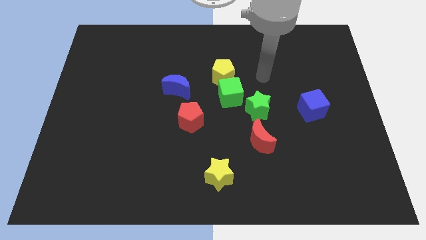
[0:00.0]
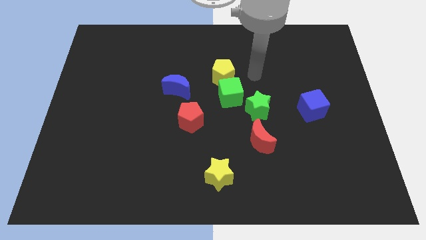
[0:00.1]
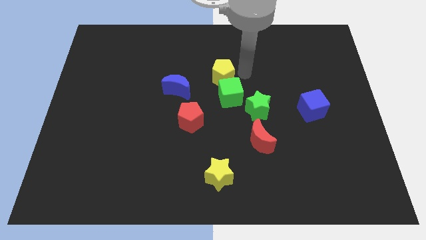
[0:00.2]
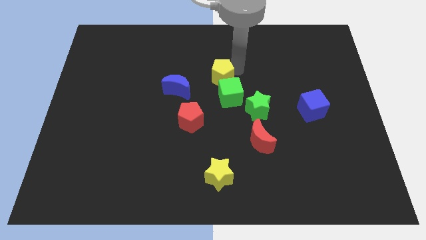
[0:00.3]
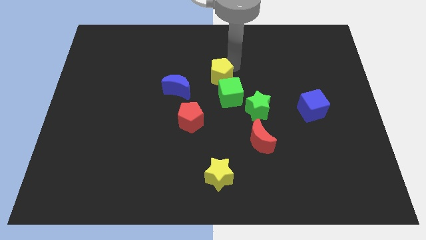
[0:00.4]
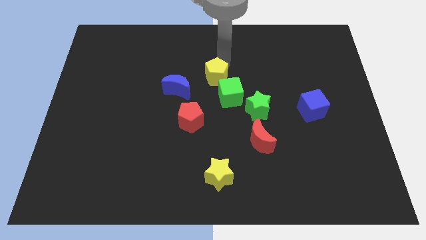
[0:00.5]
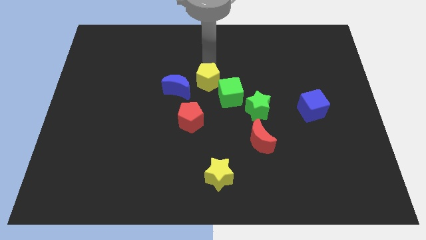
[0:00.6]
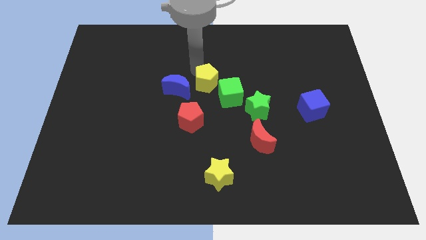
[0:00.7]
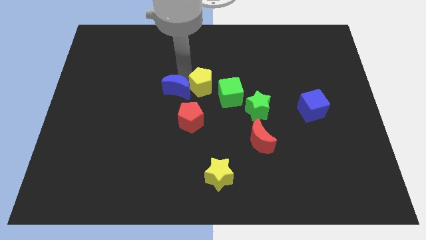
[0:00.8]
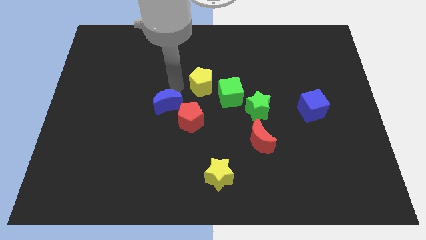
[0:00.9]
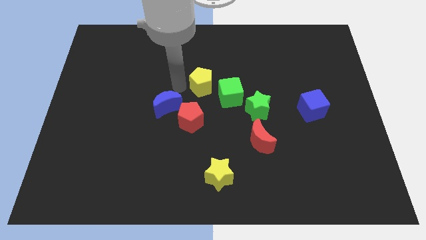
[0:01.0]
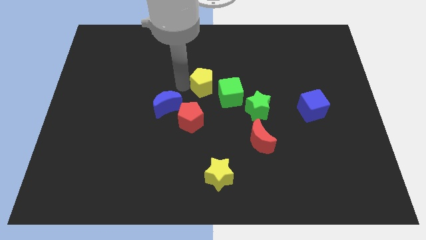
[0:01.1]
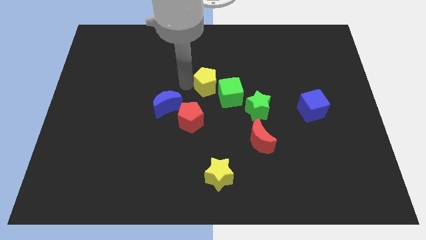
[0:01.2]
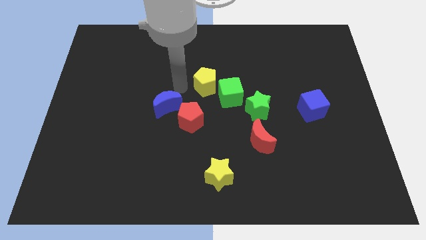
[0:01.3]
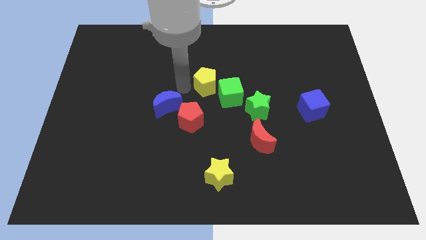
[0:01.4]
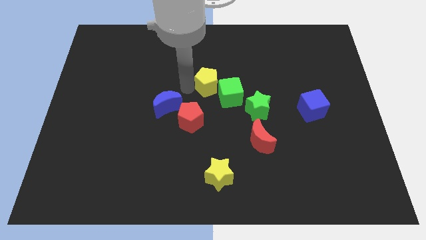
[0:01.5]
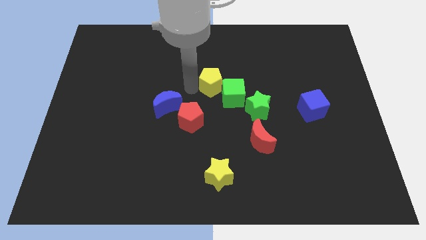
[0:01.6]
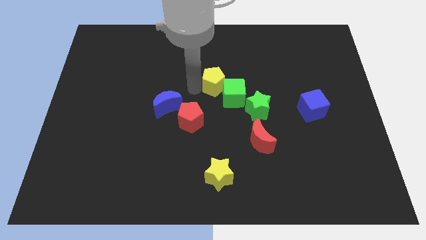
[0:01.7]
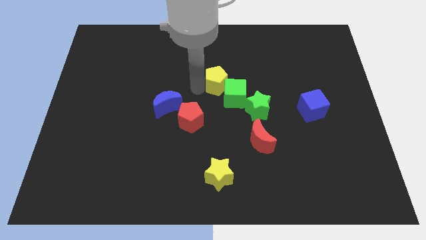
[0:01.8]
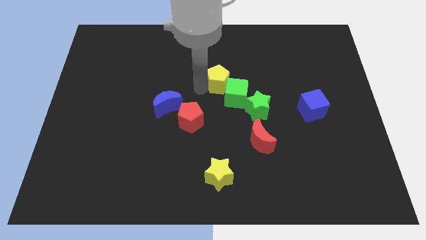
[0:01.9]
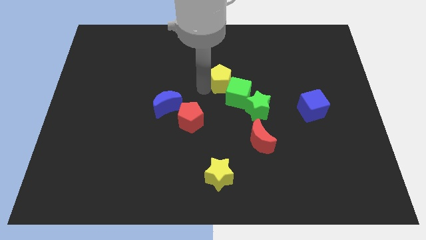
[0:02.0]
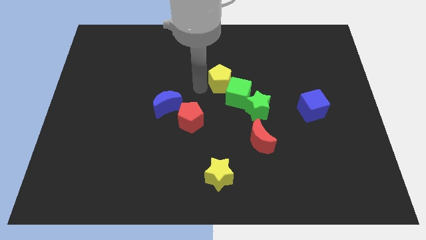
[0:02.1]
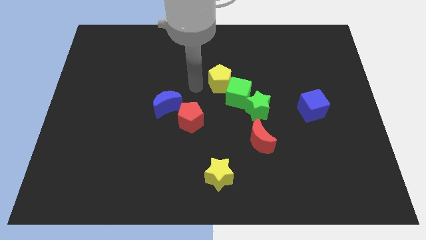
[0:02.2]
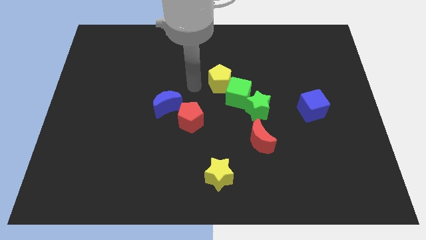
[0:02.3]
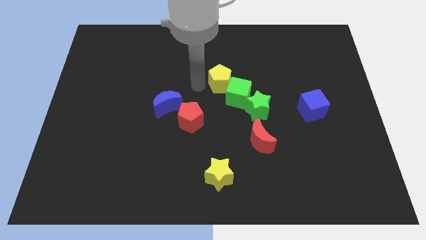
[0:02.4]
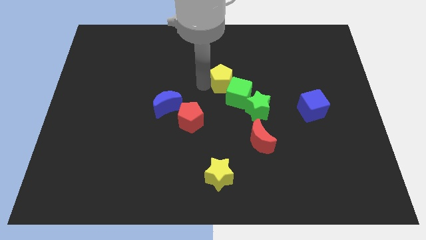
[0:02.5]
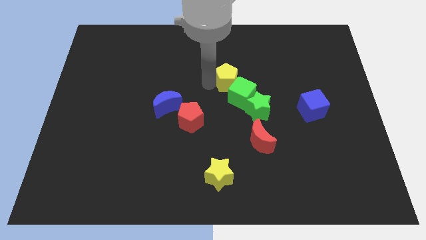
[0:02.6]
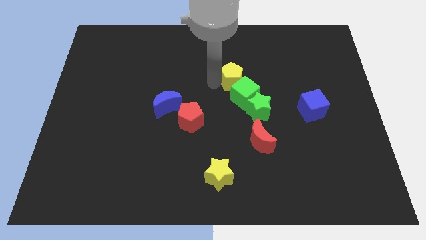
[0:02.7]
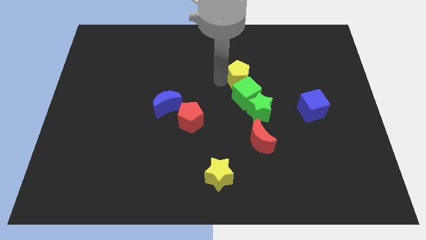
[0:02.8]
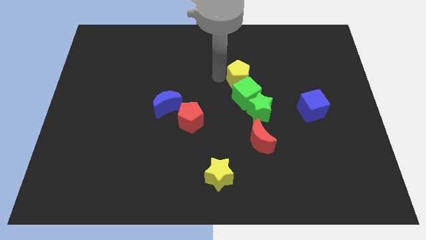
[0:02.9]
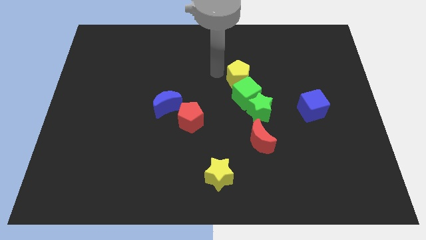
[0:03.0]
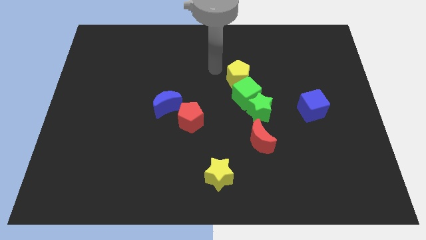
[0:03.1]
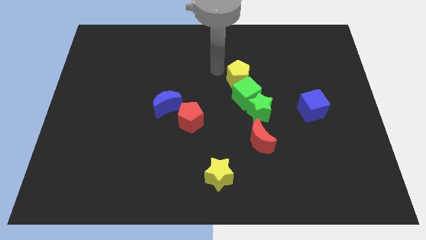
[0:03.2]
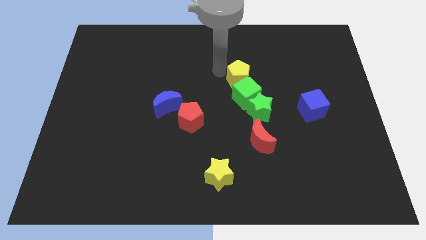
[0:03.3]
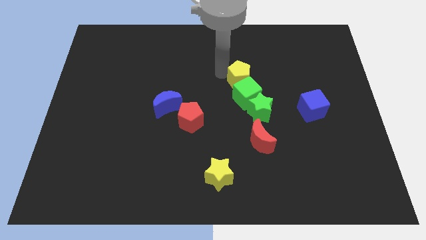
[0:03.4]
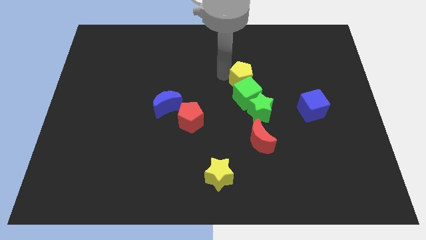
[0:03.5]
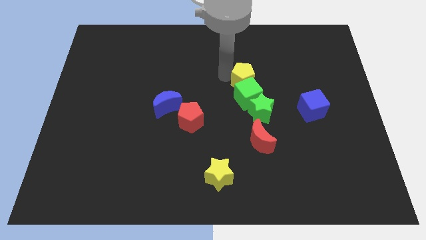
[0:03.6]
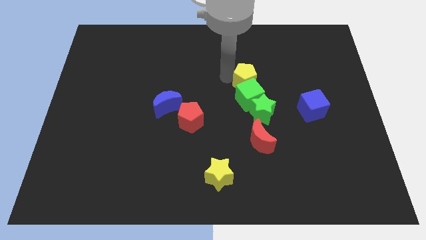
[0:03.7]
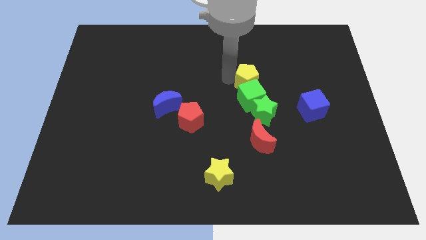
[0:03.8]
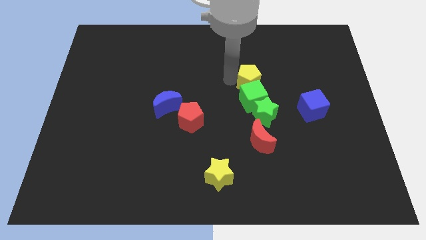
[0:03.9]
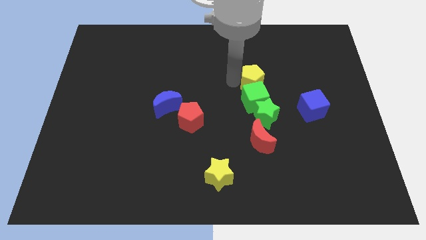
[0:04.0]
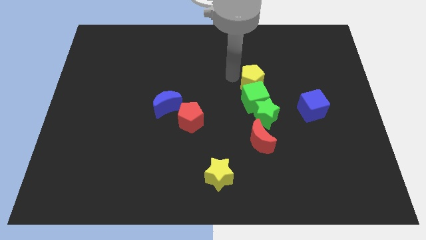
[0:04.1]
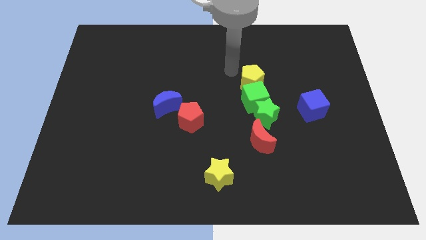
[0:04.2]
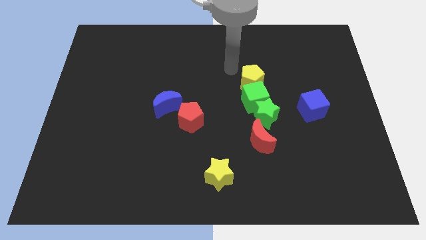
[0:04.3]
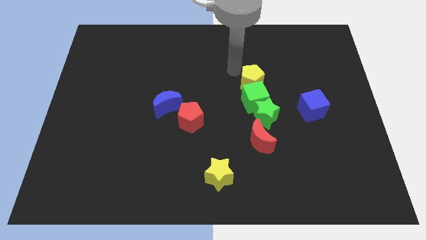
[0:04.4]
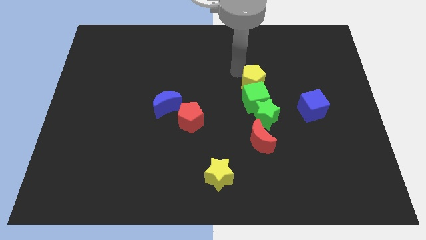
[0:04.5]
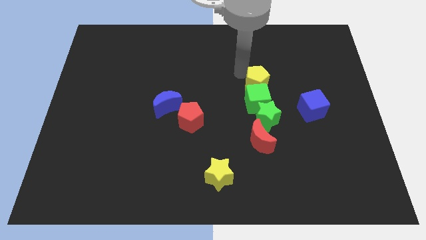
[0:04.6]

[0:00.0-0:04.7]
slide the yellow pentagon a little bit downwards and then to the right

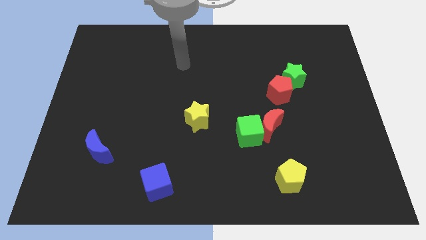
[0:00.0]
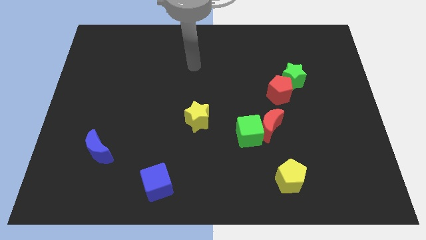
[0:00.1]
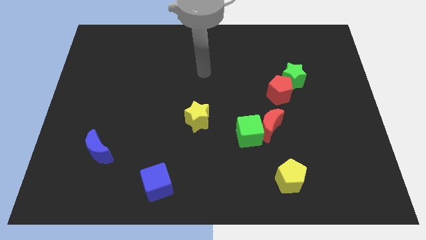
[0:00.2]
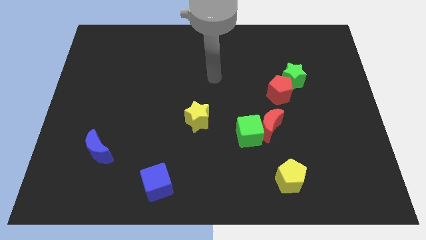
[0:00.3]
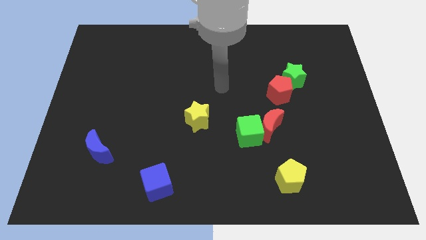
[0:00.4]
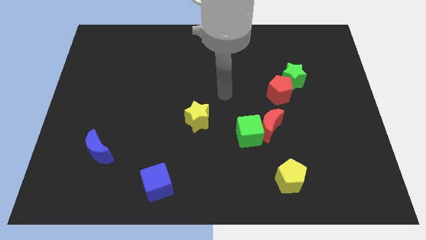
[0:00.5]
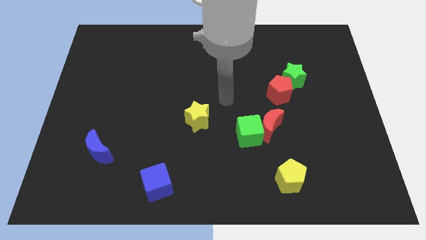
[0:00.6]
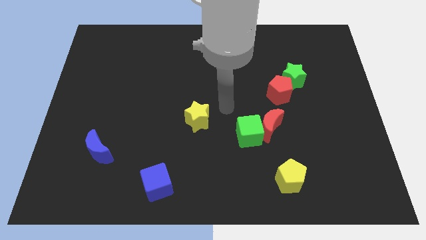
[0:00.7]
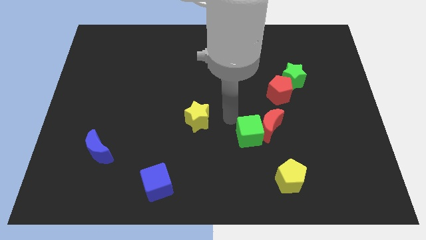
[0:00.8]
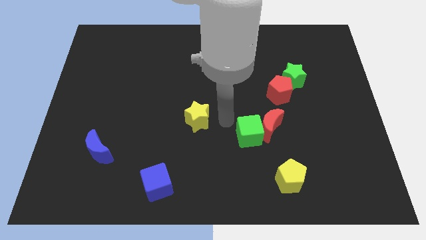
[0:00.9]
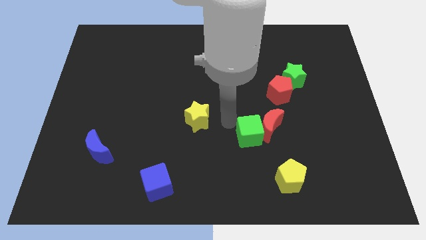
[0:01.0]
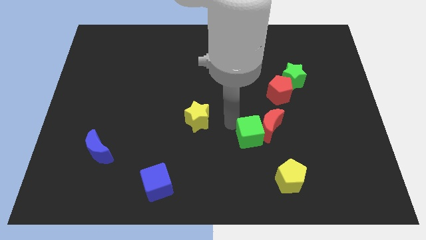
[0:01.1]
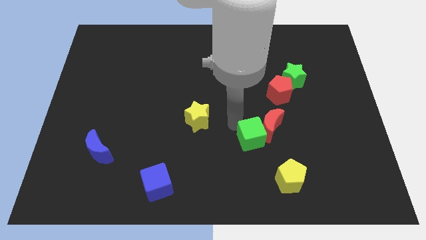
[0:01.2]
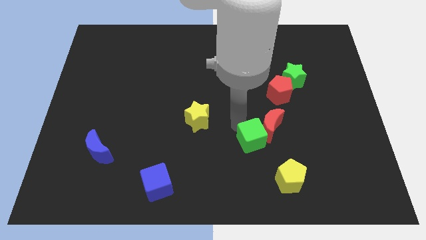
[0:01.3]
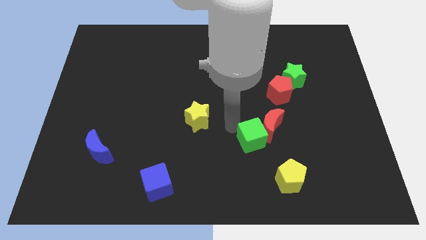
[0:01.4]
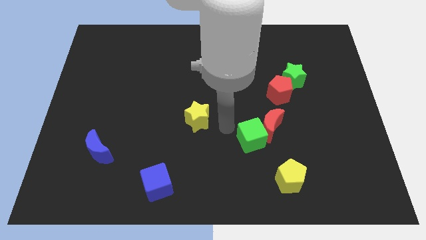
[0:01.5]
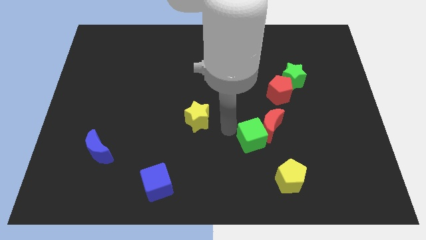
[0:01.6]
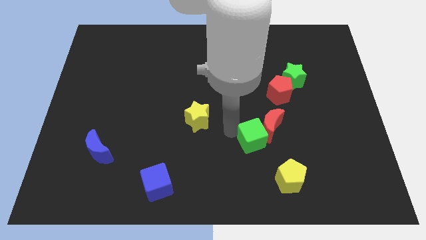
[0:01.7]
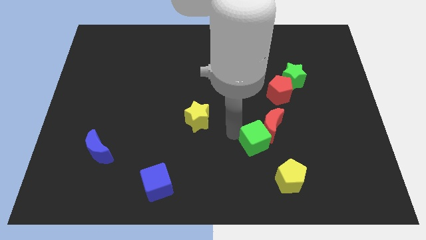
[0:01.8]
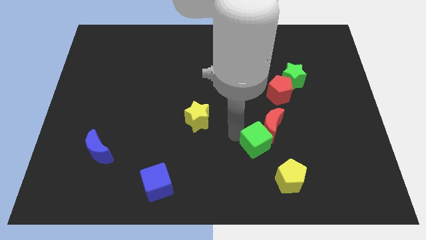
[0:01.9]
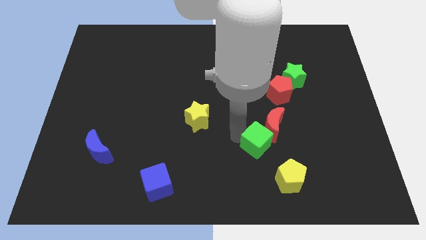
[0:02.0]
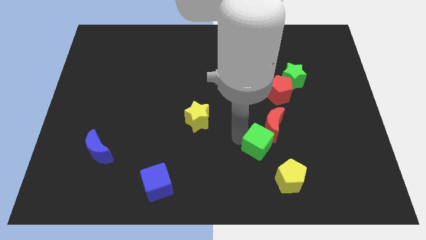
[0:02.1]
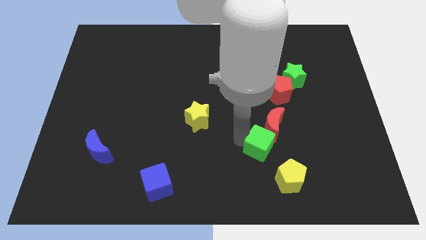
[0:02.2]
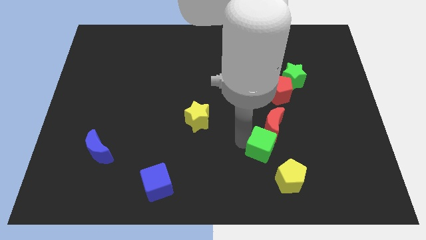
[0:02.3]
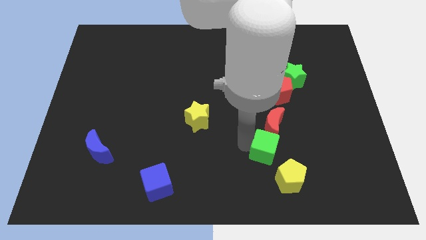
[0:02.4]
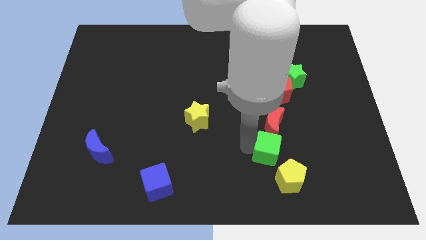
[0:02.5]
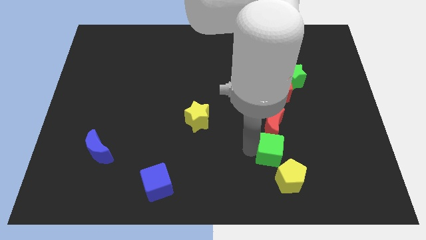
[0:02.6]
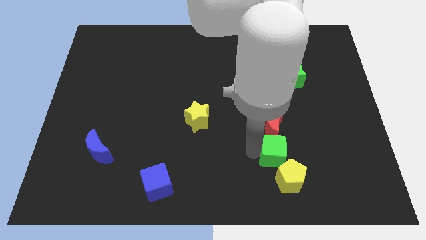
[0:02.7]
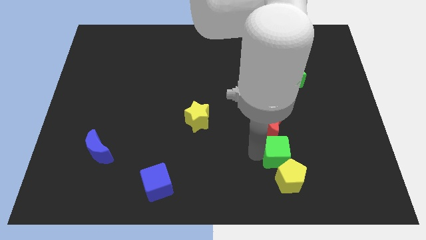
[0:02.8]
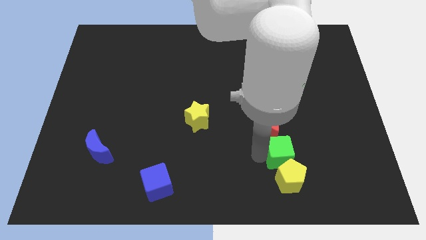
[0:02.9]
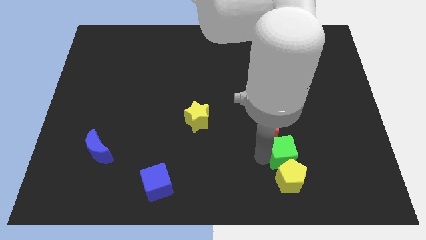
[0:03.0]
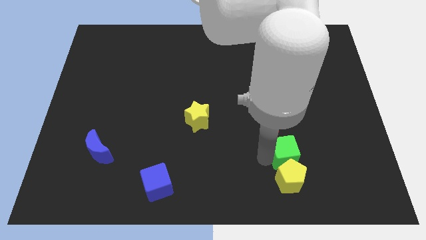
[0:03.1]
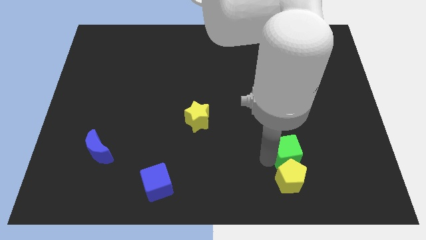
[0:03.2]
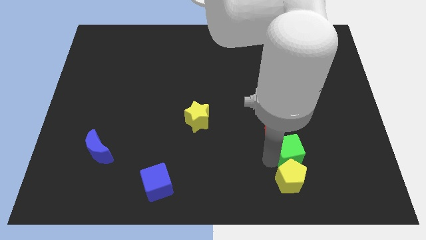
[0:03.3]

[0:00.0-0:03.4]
move the green cube a bit to the right
